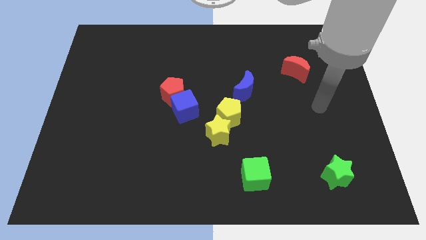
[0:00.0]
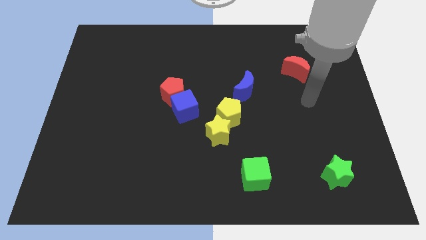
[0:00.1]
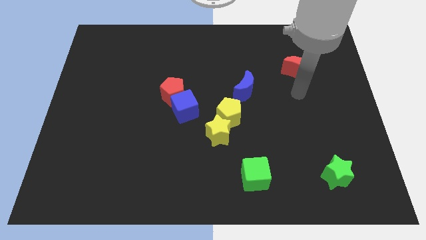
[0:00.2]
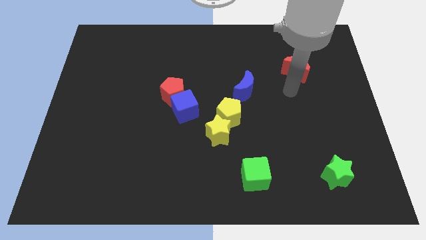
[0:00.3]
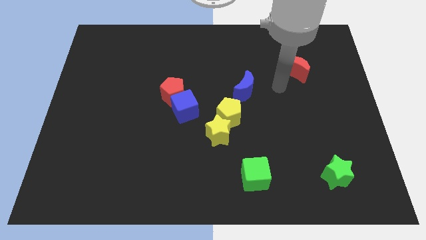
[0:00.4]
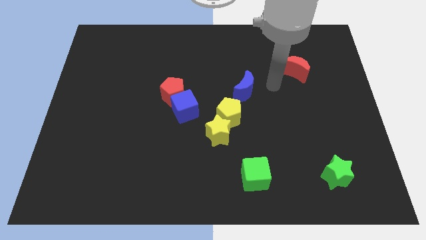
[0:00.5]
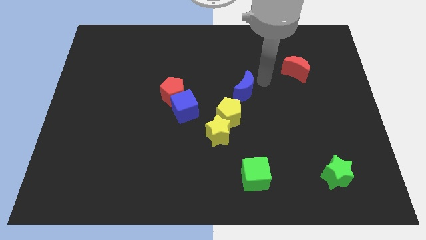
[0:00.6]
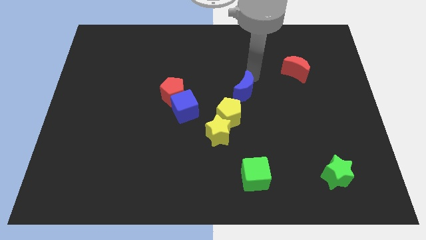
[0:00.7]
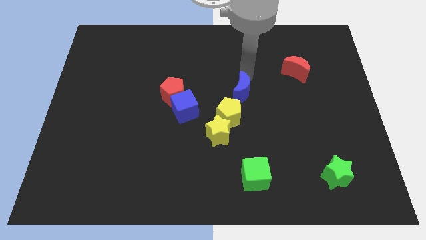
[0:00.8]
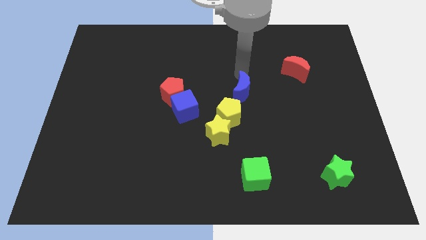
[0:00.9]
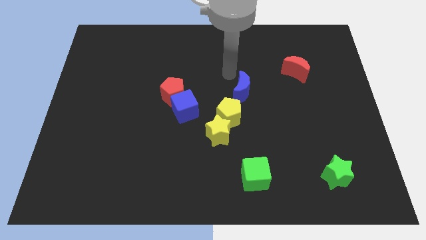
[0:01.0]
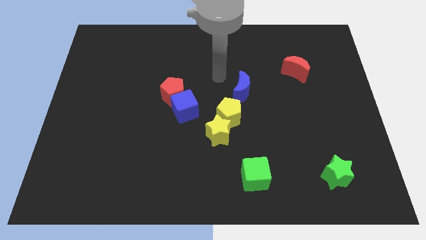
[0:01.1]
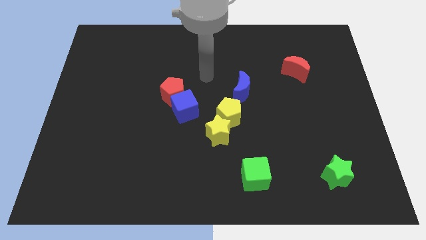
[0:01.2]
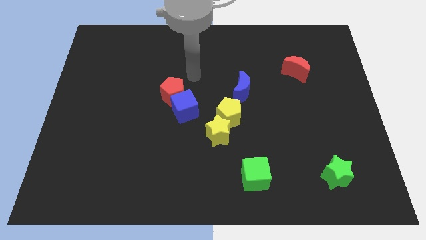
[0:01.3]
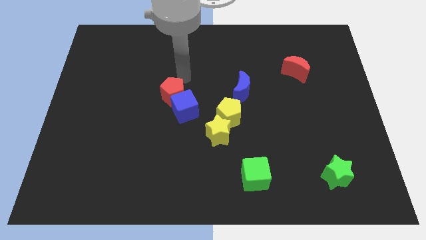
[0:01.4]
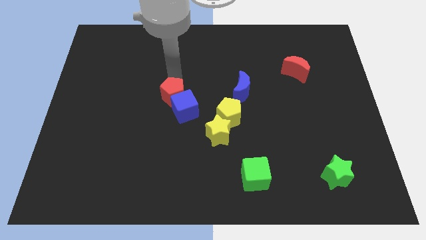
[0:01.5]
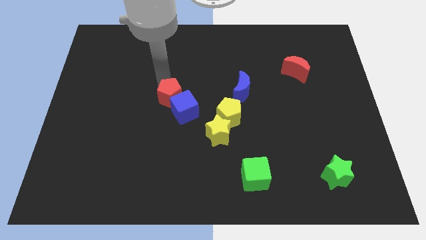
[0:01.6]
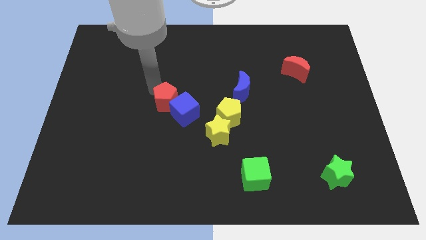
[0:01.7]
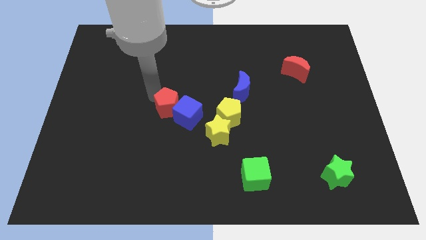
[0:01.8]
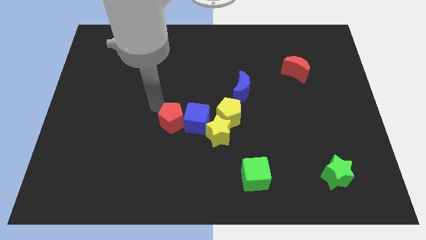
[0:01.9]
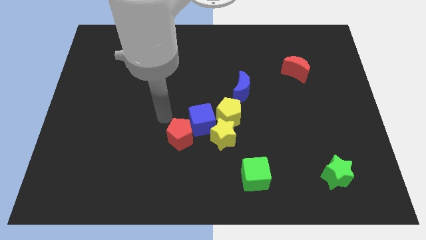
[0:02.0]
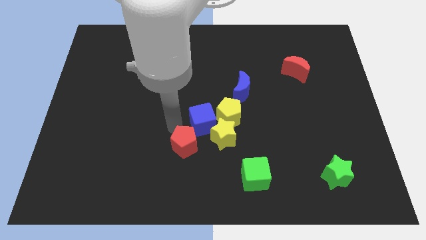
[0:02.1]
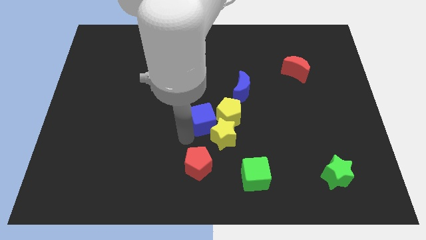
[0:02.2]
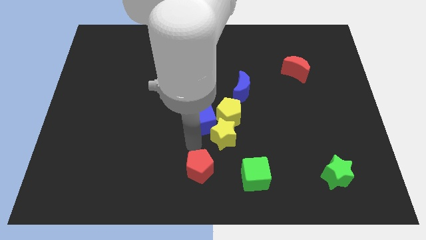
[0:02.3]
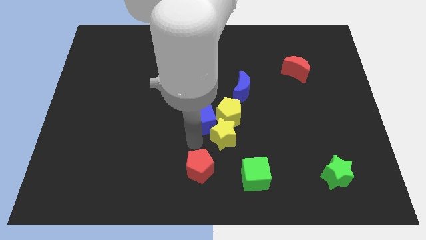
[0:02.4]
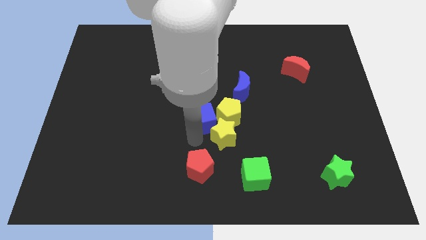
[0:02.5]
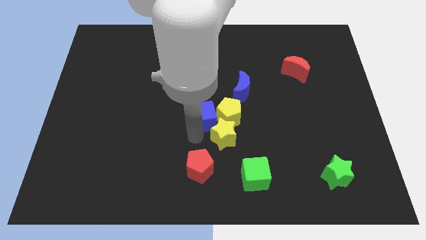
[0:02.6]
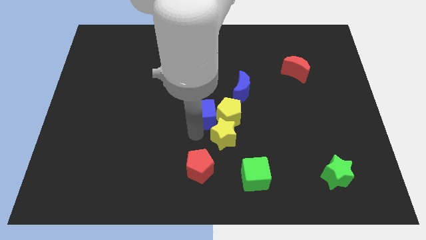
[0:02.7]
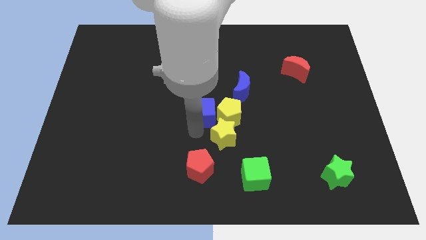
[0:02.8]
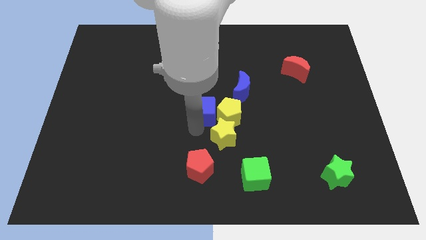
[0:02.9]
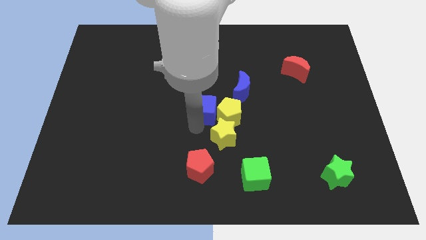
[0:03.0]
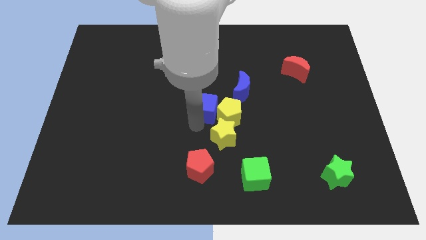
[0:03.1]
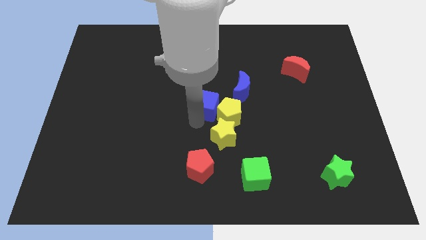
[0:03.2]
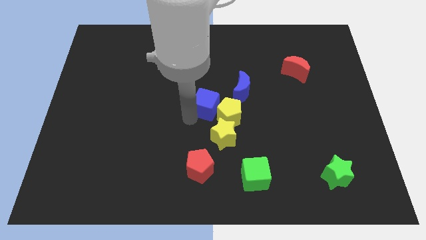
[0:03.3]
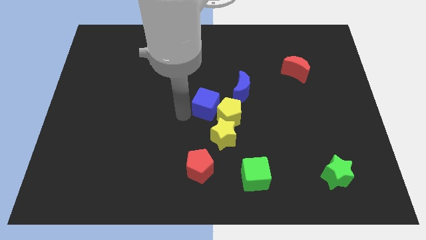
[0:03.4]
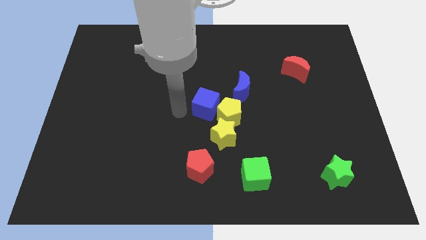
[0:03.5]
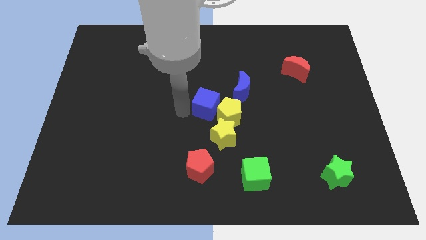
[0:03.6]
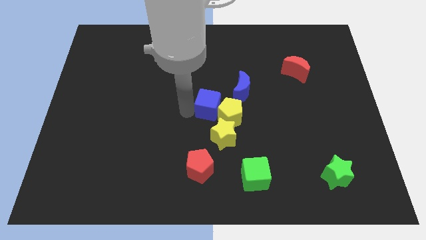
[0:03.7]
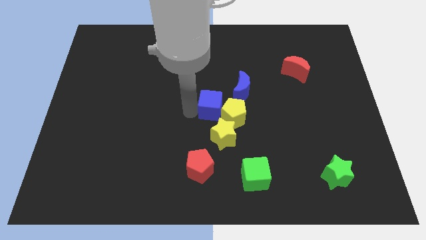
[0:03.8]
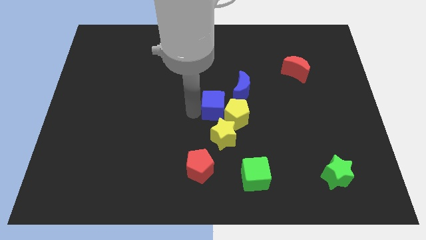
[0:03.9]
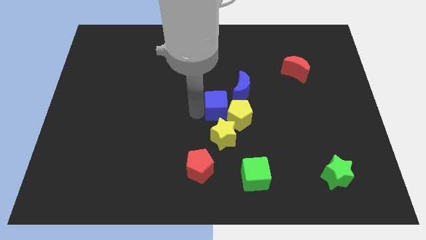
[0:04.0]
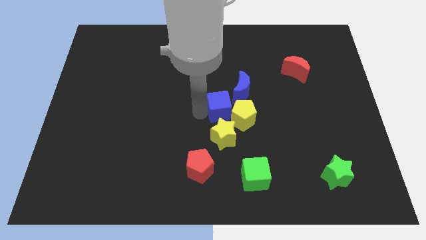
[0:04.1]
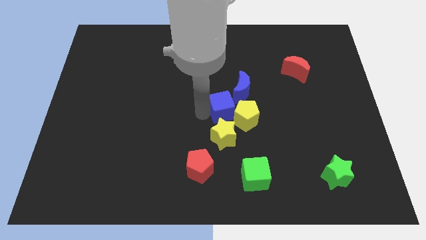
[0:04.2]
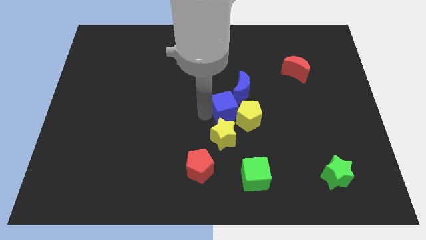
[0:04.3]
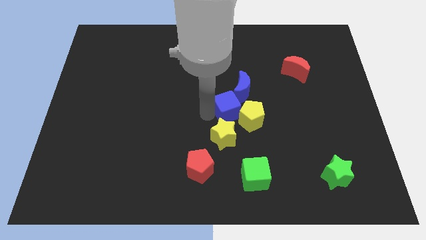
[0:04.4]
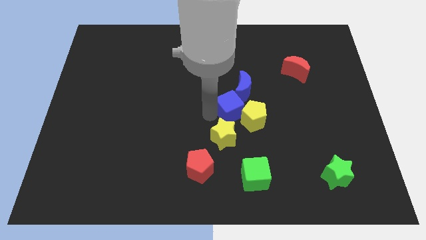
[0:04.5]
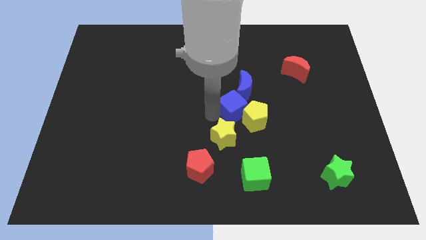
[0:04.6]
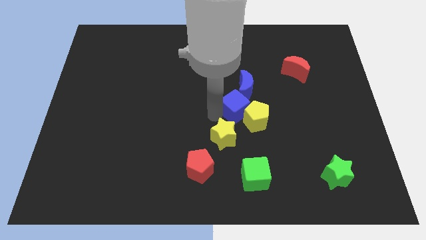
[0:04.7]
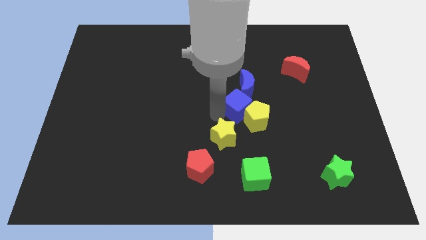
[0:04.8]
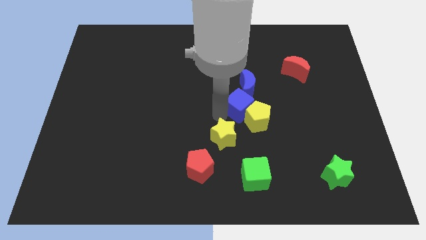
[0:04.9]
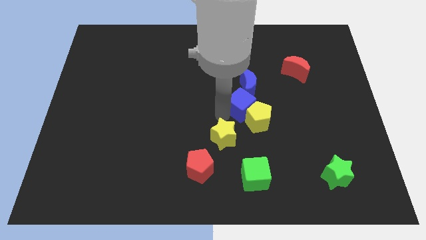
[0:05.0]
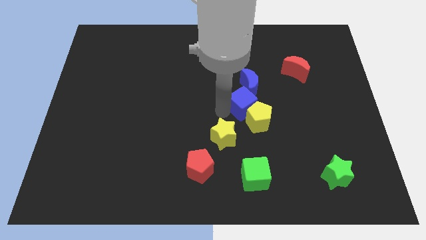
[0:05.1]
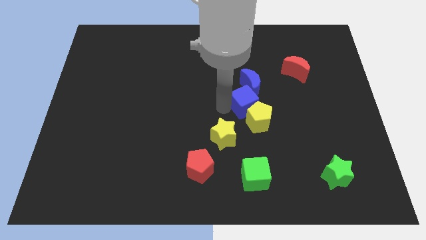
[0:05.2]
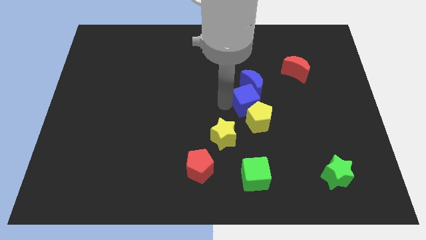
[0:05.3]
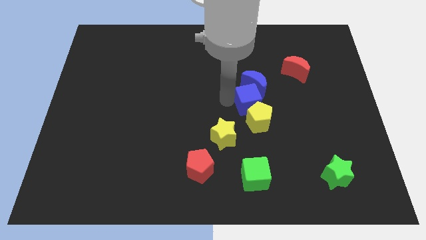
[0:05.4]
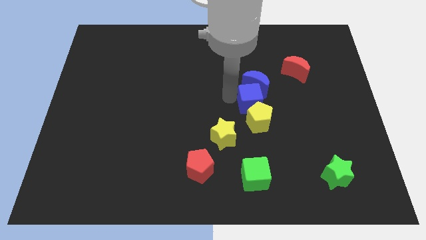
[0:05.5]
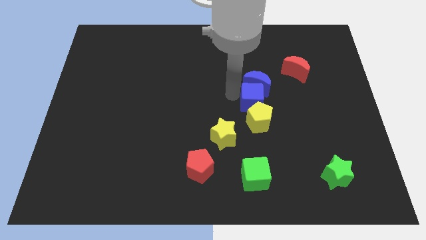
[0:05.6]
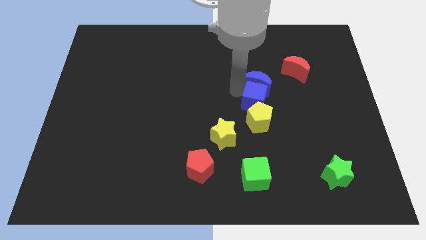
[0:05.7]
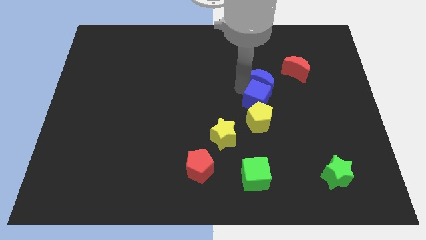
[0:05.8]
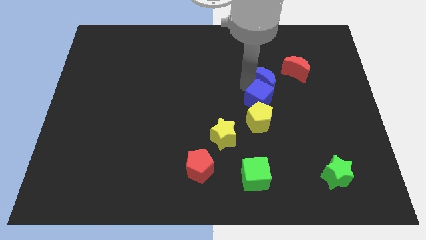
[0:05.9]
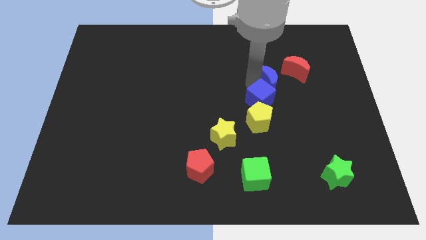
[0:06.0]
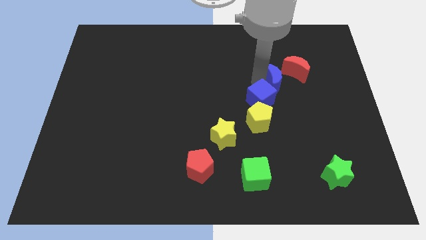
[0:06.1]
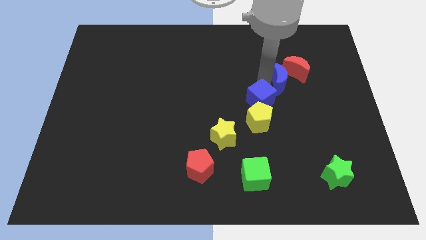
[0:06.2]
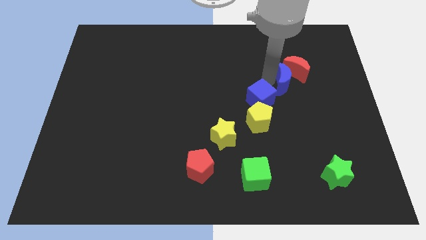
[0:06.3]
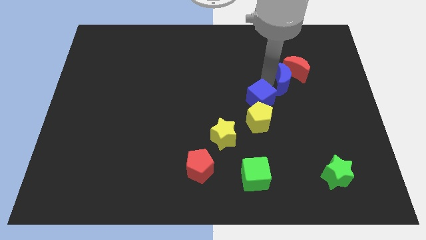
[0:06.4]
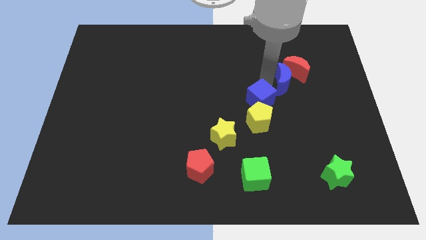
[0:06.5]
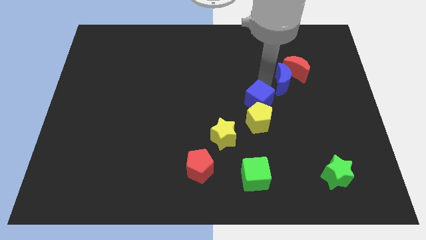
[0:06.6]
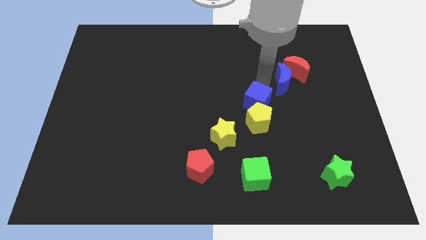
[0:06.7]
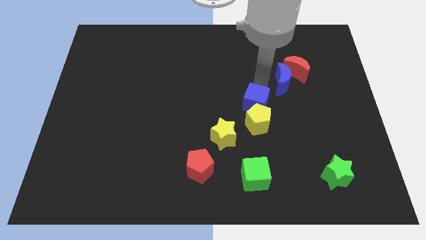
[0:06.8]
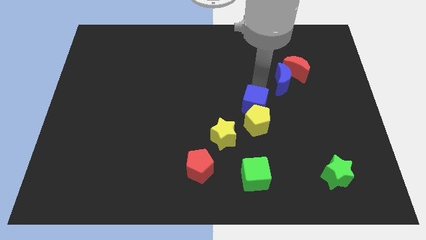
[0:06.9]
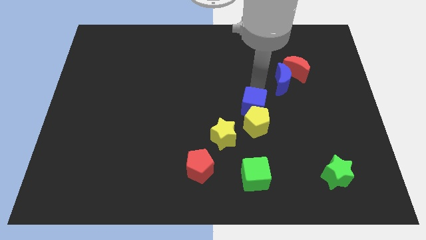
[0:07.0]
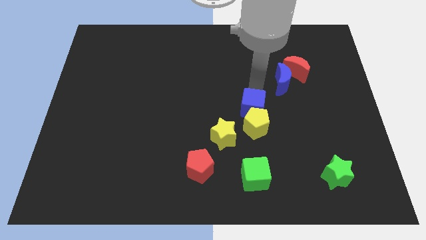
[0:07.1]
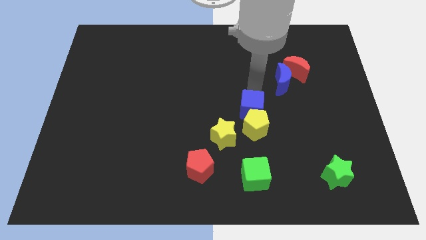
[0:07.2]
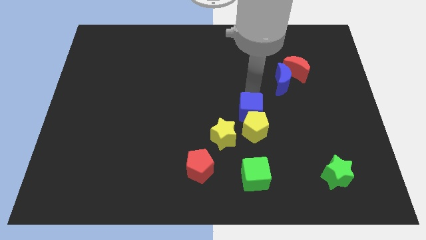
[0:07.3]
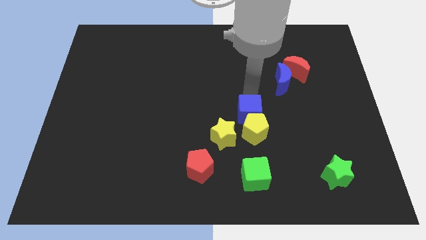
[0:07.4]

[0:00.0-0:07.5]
put the blue cube to the top side of the green cube
